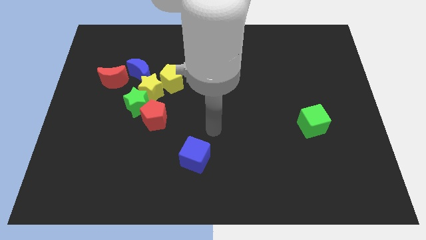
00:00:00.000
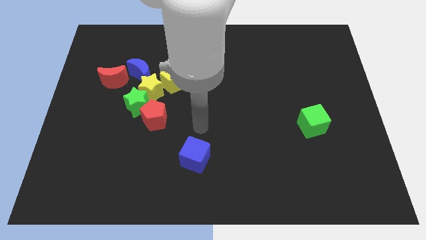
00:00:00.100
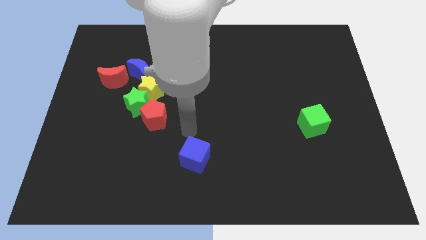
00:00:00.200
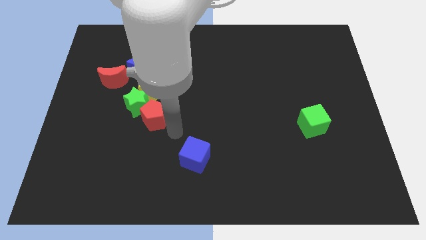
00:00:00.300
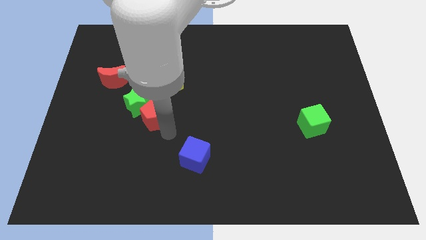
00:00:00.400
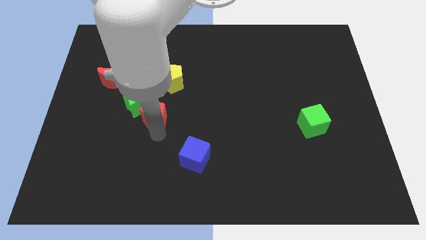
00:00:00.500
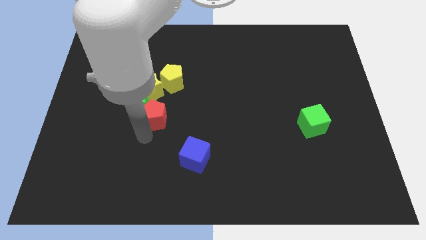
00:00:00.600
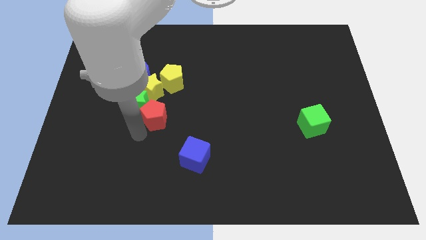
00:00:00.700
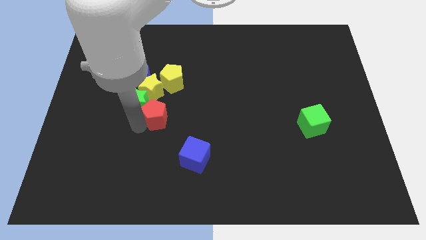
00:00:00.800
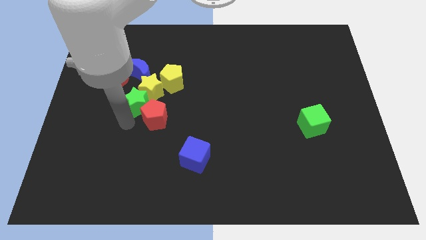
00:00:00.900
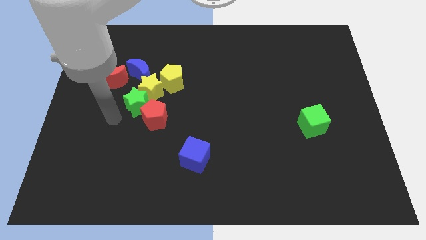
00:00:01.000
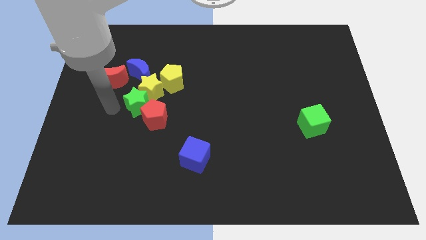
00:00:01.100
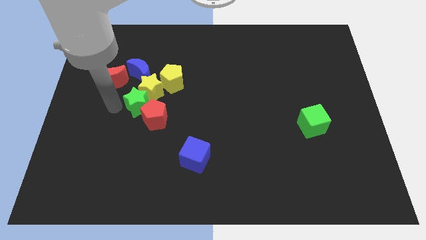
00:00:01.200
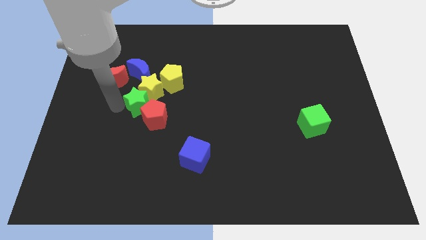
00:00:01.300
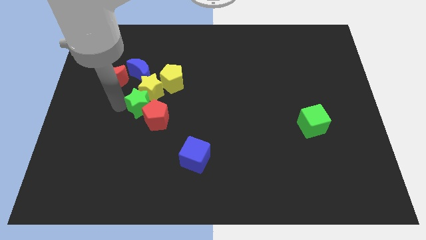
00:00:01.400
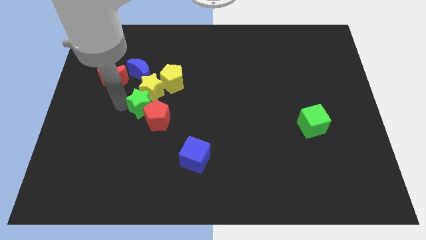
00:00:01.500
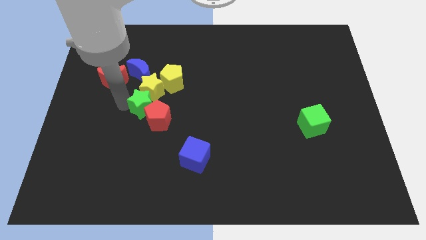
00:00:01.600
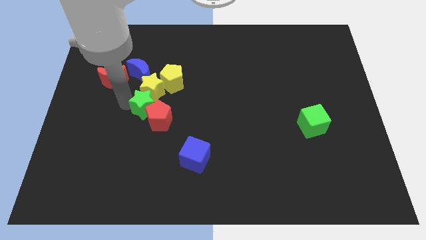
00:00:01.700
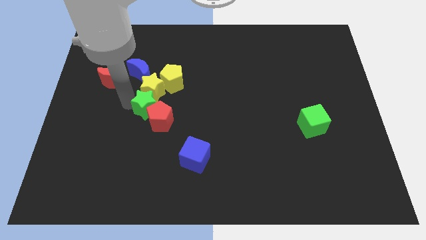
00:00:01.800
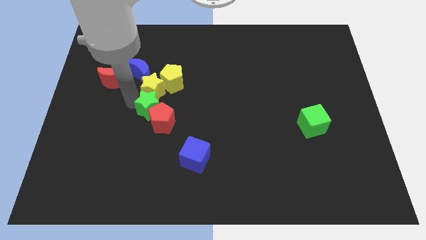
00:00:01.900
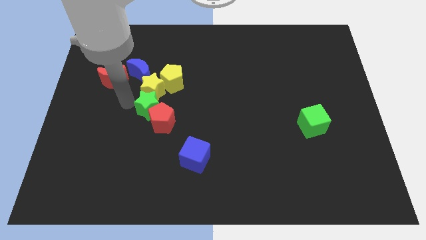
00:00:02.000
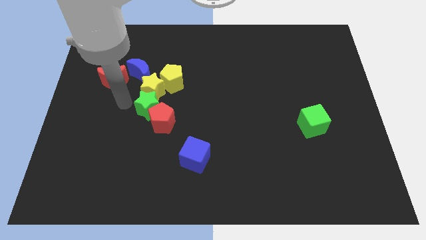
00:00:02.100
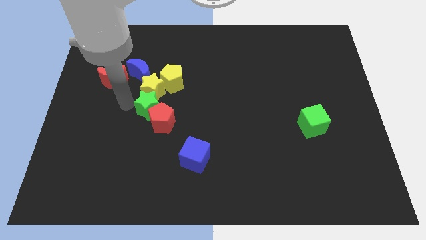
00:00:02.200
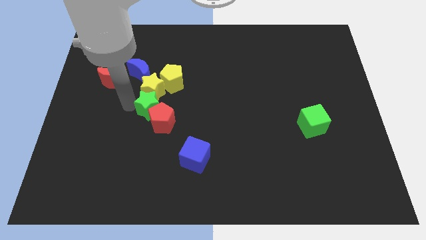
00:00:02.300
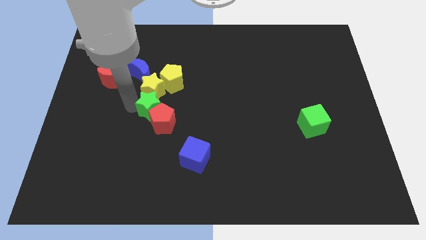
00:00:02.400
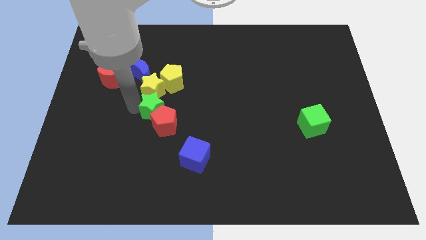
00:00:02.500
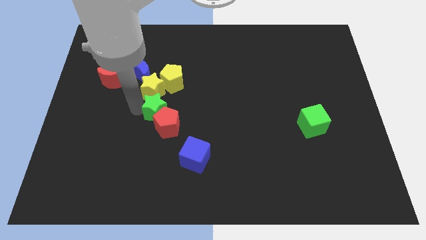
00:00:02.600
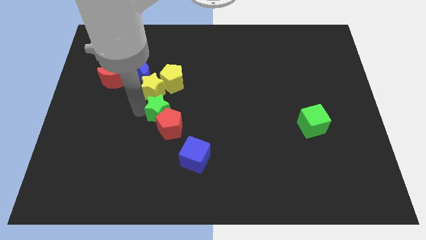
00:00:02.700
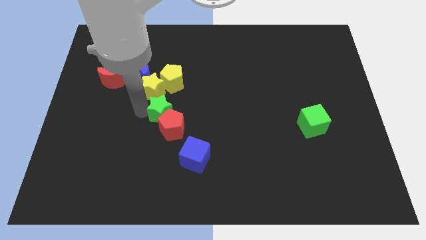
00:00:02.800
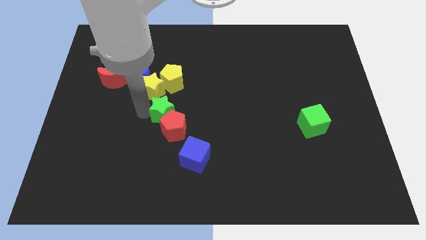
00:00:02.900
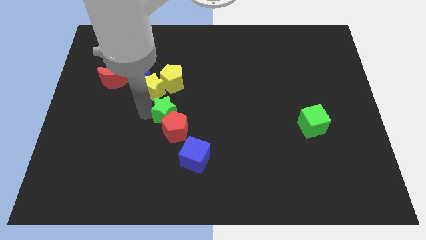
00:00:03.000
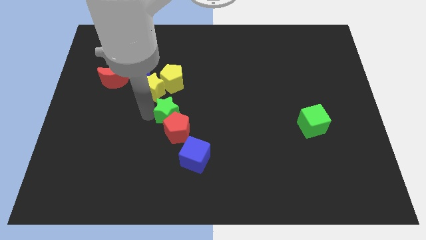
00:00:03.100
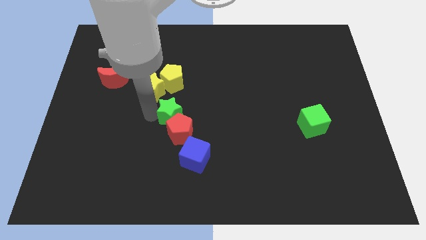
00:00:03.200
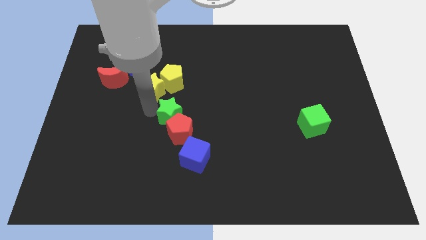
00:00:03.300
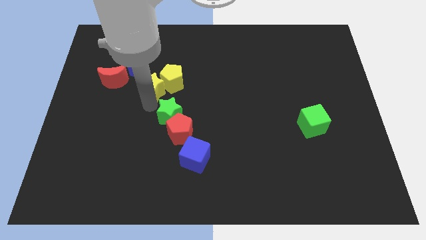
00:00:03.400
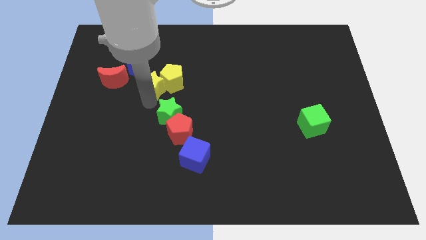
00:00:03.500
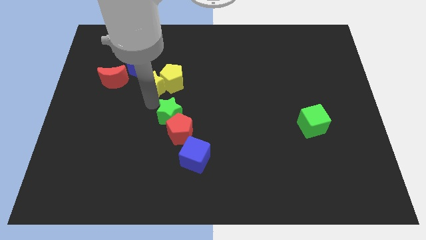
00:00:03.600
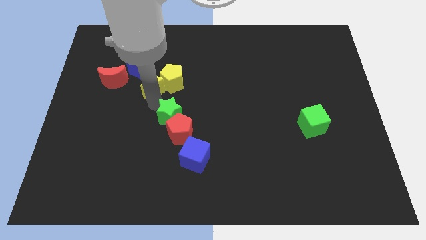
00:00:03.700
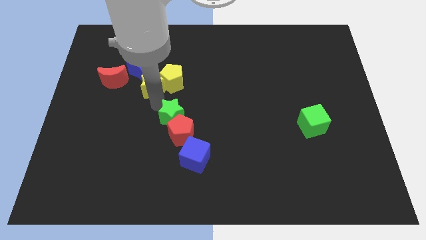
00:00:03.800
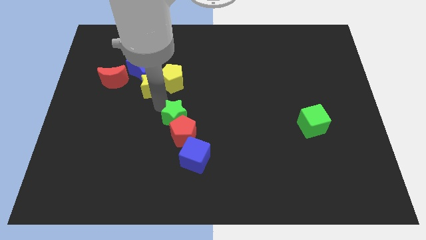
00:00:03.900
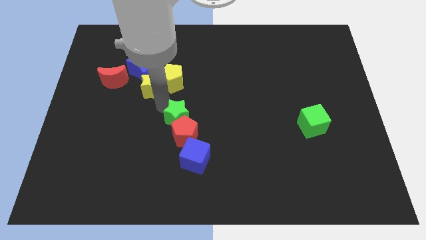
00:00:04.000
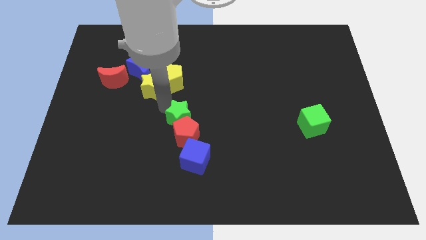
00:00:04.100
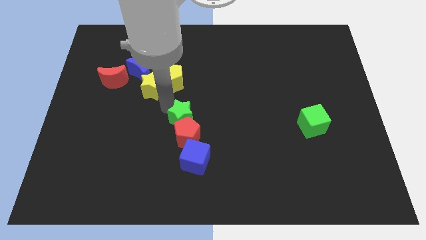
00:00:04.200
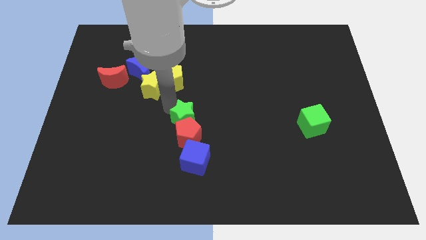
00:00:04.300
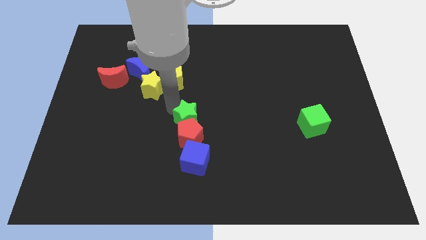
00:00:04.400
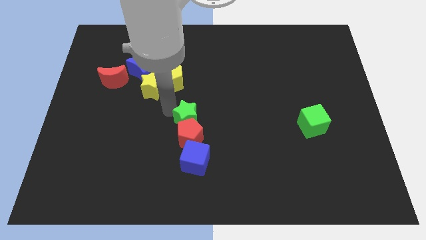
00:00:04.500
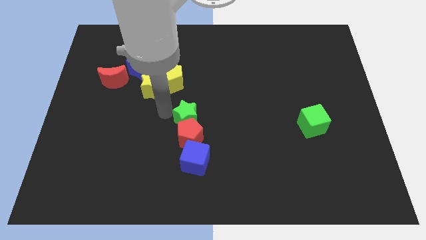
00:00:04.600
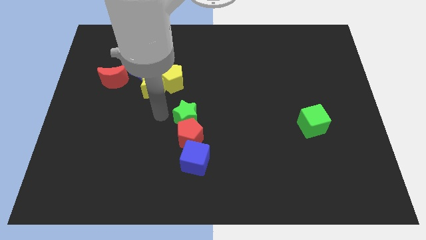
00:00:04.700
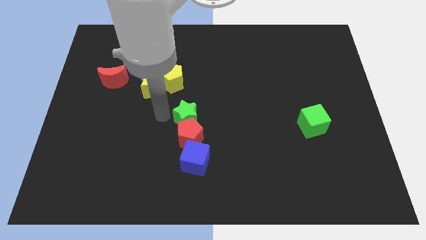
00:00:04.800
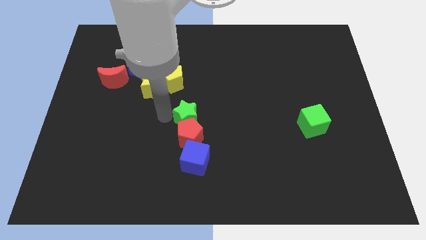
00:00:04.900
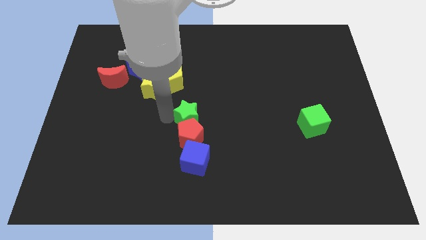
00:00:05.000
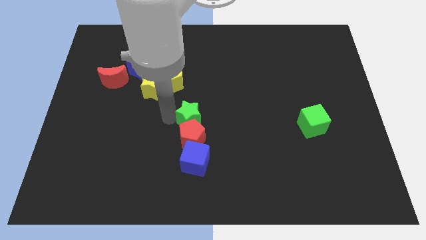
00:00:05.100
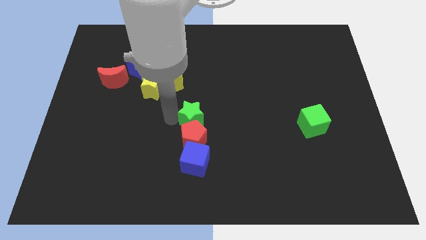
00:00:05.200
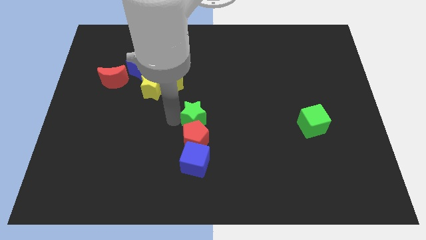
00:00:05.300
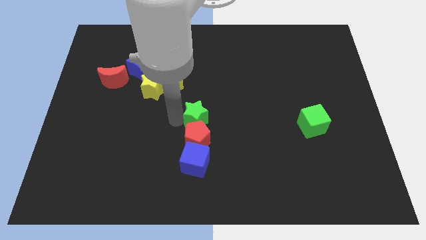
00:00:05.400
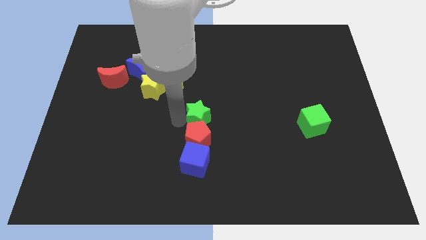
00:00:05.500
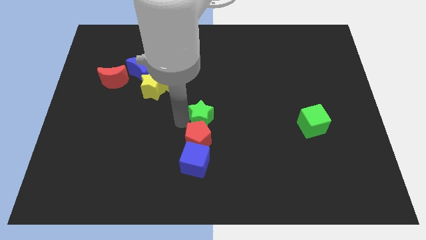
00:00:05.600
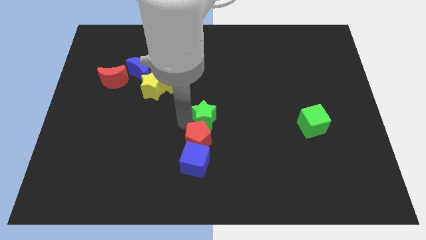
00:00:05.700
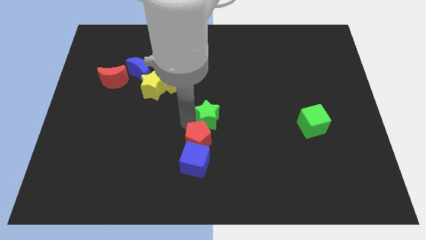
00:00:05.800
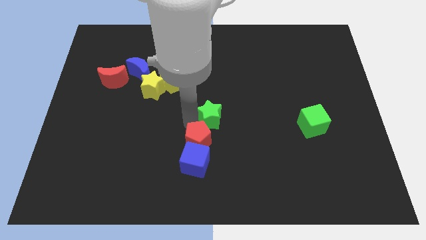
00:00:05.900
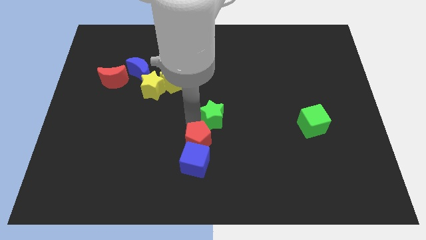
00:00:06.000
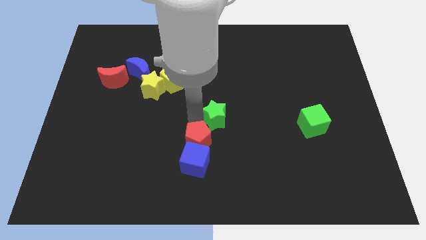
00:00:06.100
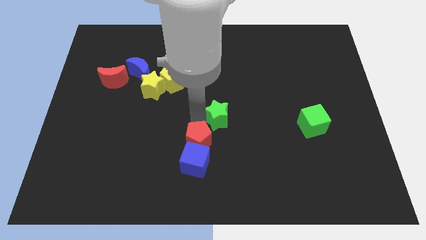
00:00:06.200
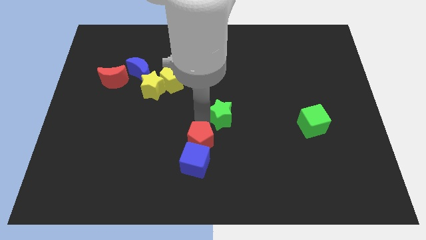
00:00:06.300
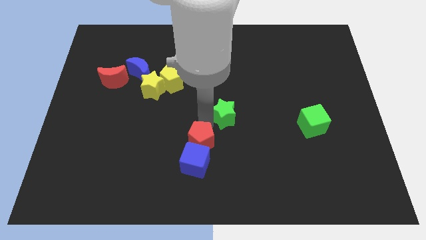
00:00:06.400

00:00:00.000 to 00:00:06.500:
slide the green star right

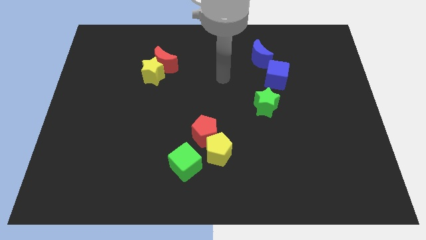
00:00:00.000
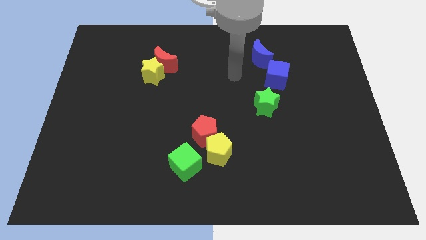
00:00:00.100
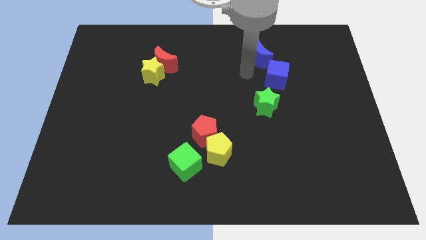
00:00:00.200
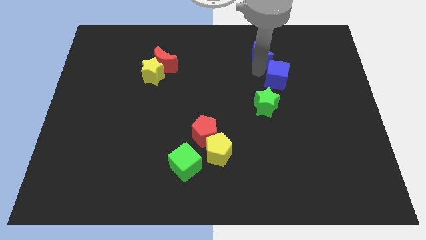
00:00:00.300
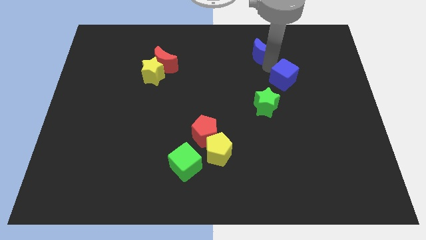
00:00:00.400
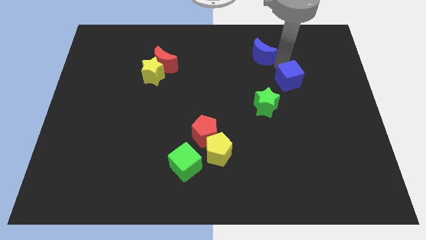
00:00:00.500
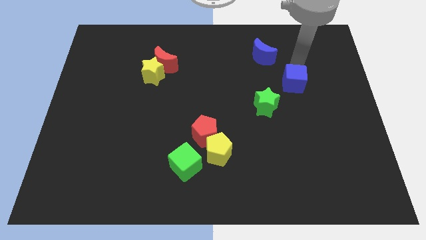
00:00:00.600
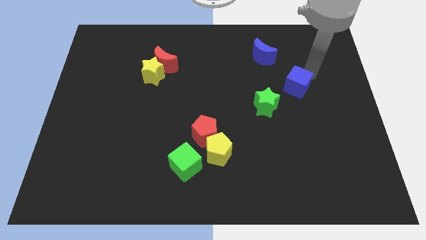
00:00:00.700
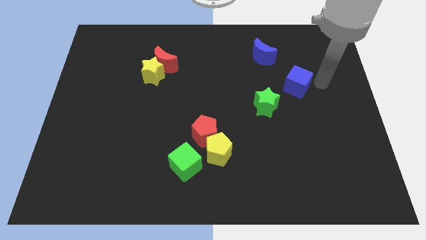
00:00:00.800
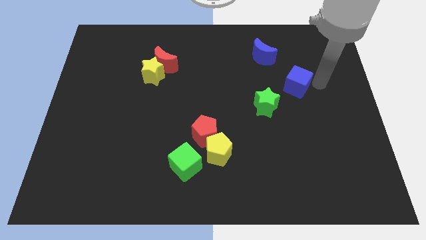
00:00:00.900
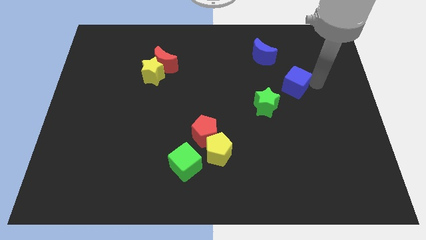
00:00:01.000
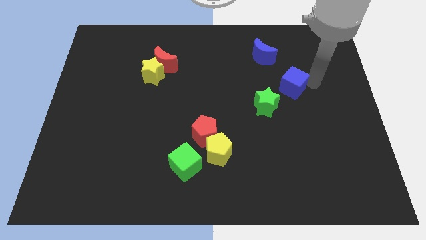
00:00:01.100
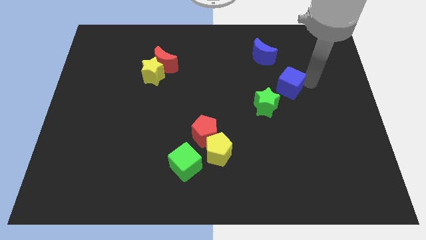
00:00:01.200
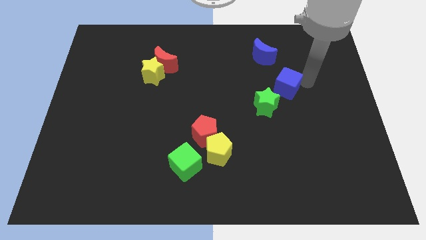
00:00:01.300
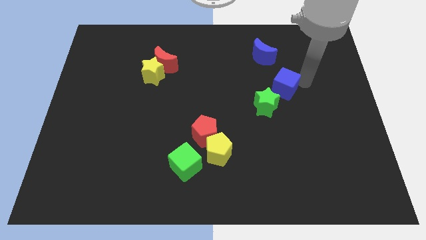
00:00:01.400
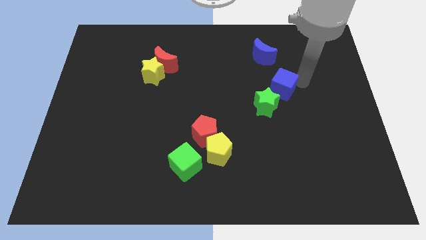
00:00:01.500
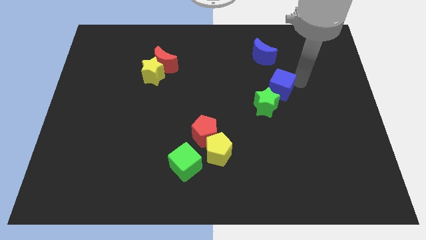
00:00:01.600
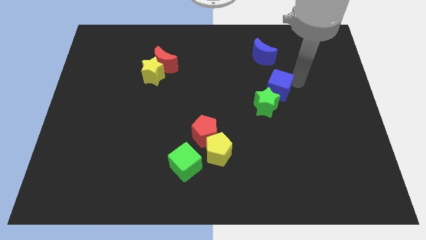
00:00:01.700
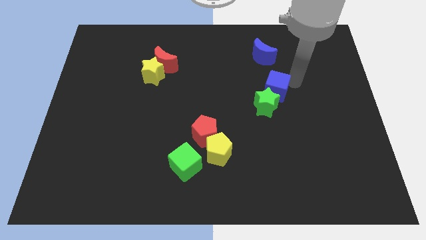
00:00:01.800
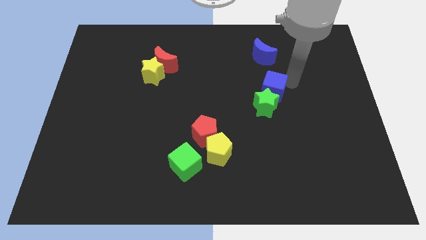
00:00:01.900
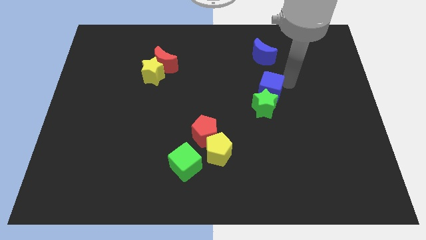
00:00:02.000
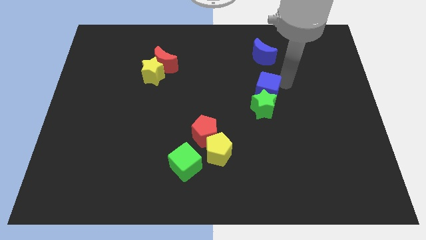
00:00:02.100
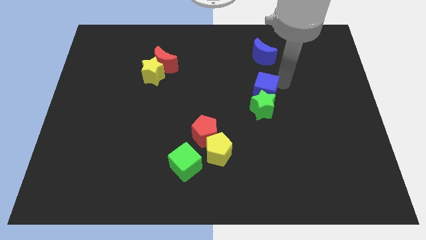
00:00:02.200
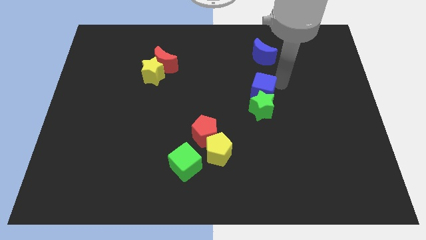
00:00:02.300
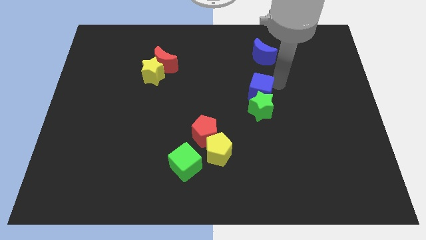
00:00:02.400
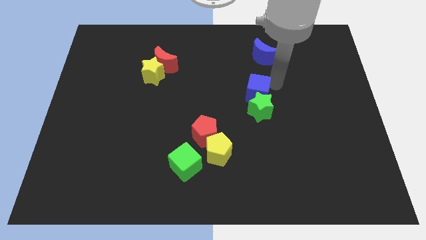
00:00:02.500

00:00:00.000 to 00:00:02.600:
slightly move the blue cube down and left
